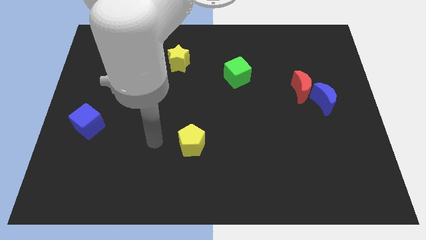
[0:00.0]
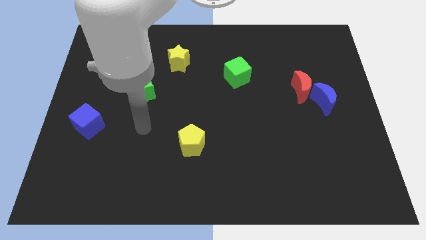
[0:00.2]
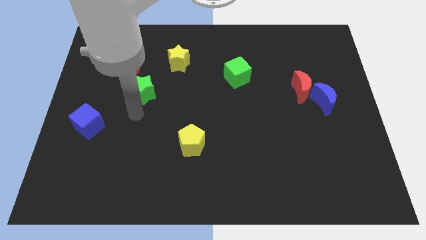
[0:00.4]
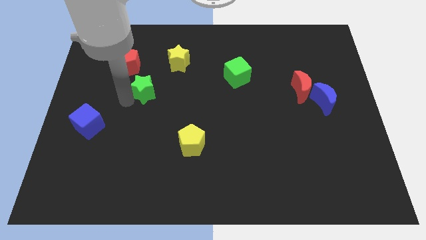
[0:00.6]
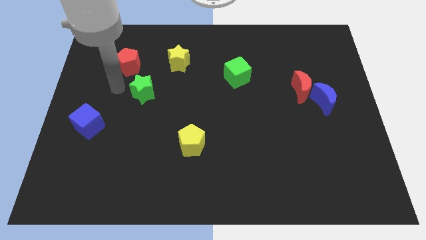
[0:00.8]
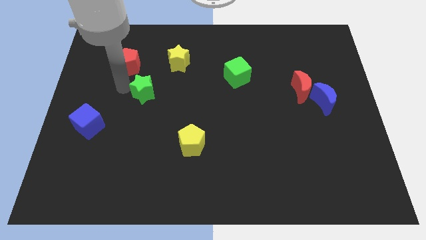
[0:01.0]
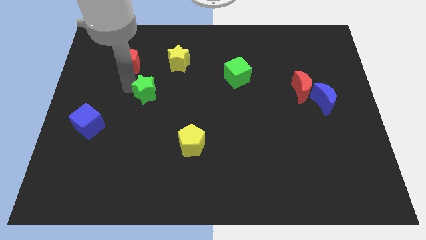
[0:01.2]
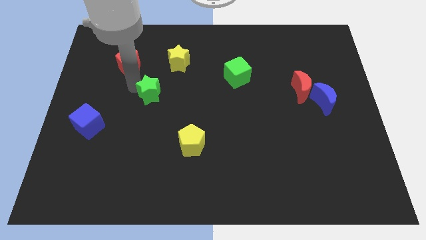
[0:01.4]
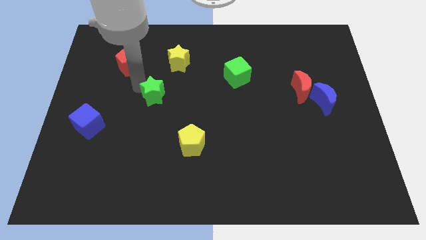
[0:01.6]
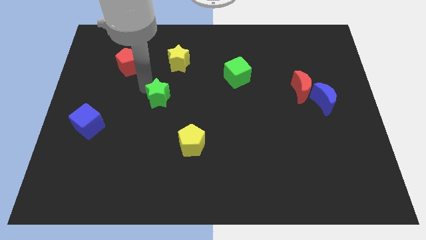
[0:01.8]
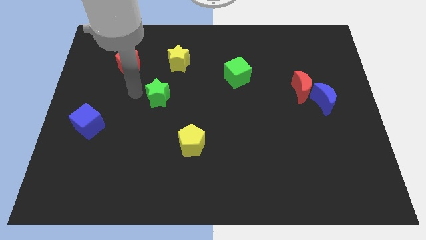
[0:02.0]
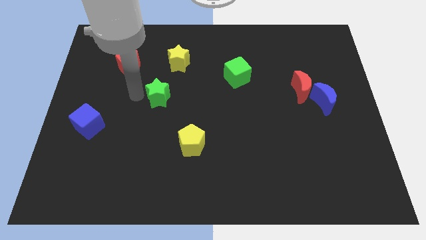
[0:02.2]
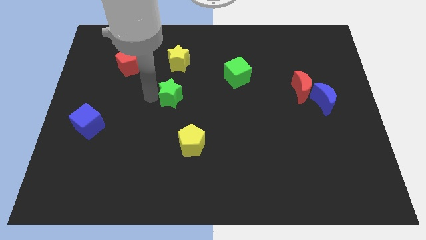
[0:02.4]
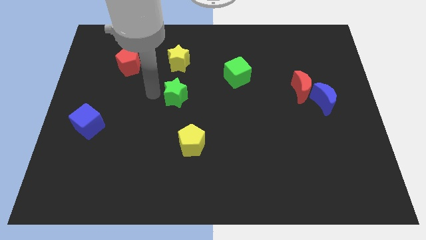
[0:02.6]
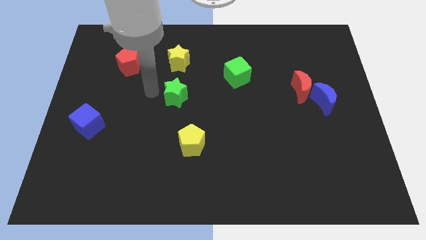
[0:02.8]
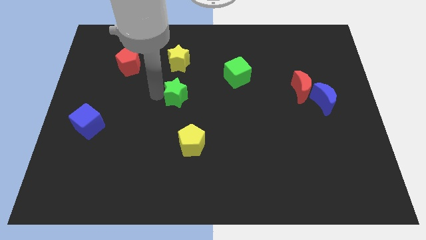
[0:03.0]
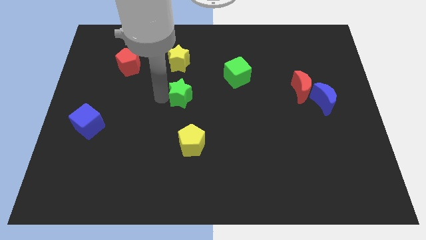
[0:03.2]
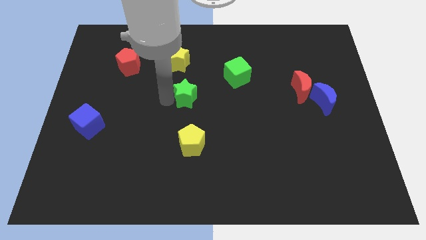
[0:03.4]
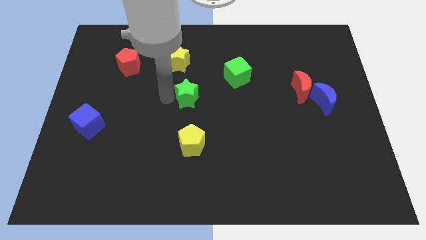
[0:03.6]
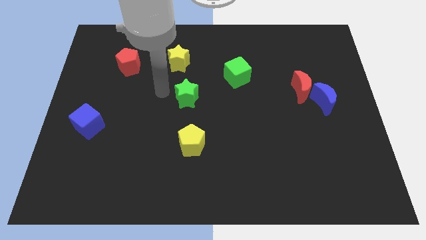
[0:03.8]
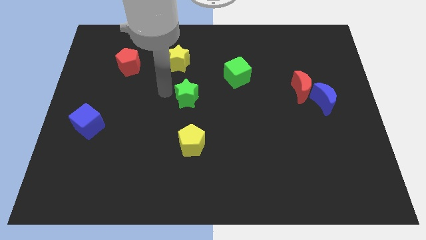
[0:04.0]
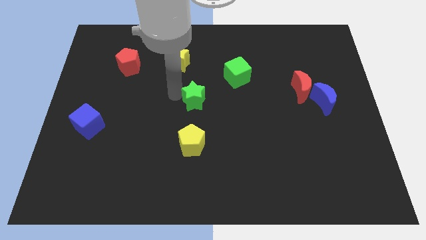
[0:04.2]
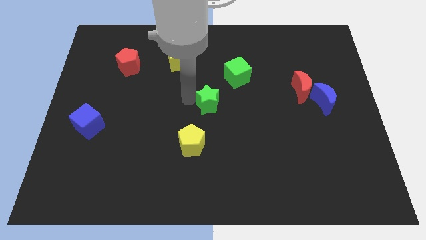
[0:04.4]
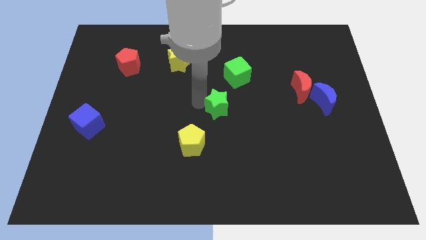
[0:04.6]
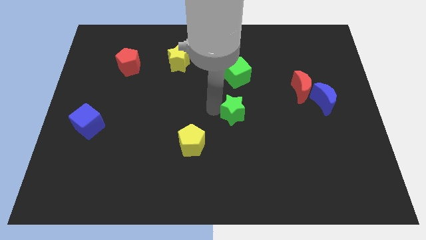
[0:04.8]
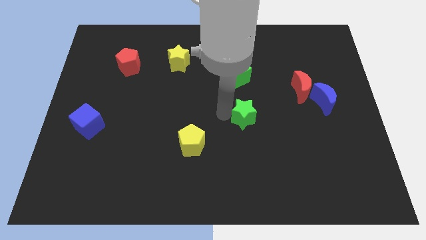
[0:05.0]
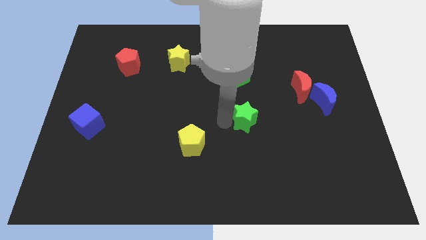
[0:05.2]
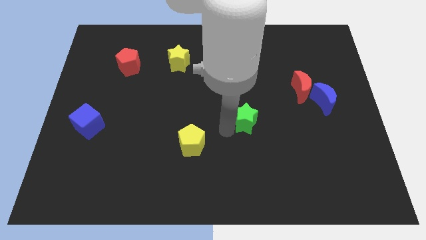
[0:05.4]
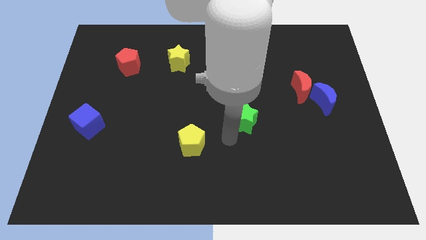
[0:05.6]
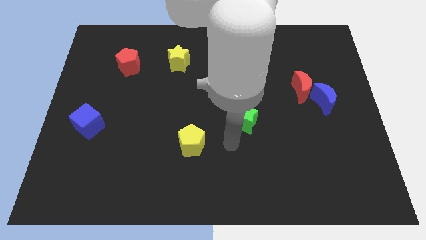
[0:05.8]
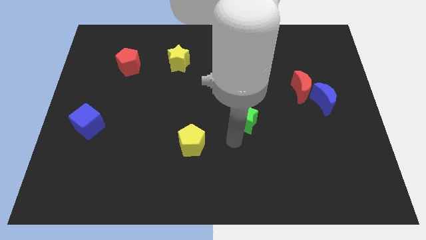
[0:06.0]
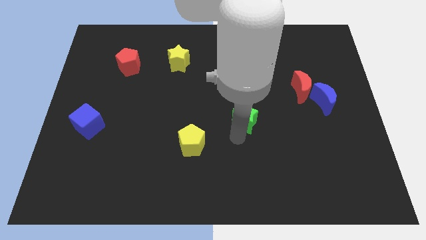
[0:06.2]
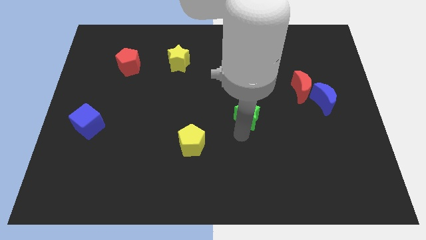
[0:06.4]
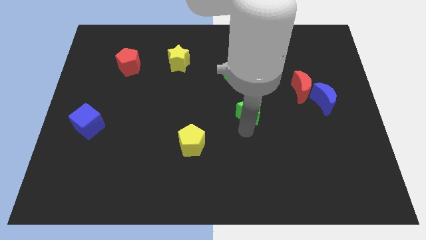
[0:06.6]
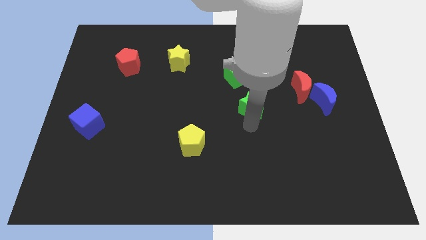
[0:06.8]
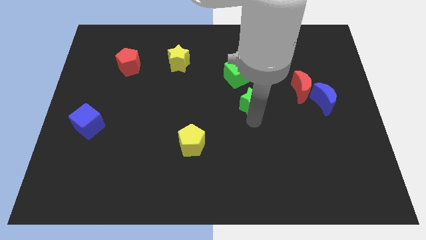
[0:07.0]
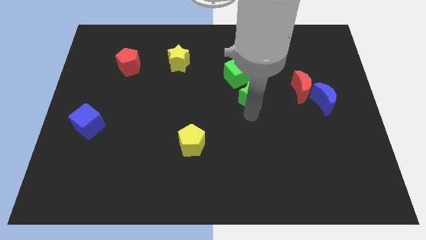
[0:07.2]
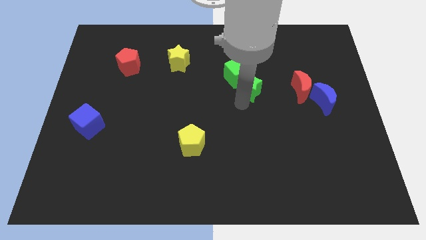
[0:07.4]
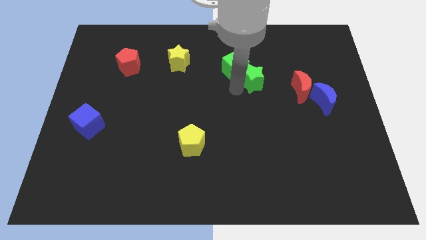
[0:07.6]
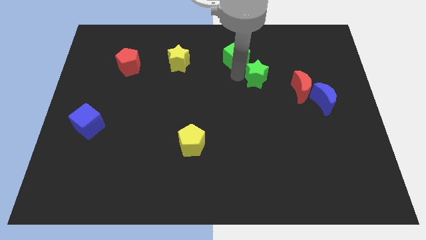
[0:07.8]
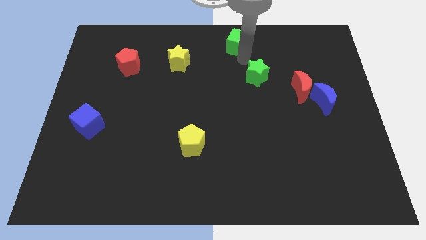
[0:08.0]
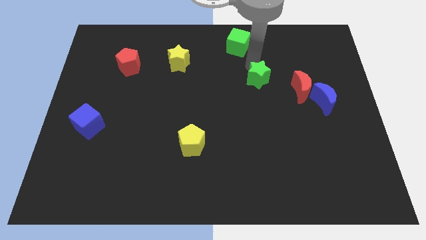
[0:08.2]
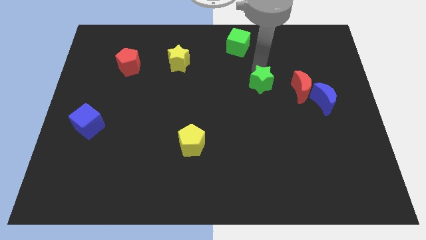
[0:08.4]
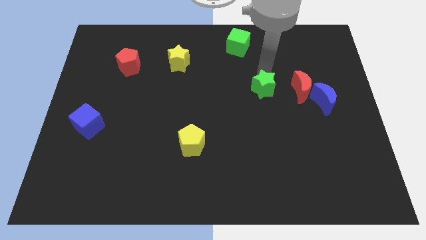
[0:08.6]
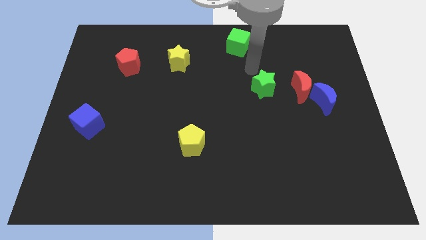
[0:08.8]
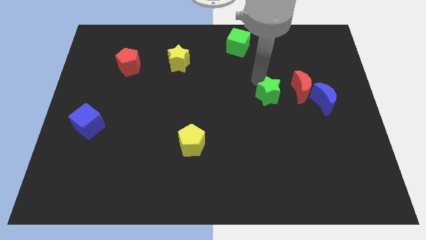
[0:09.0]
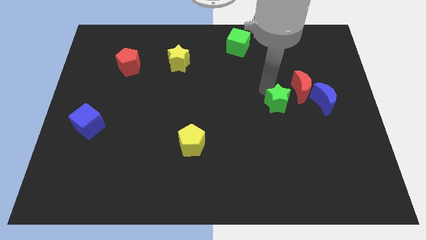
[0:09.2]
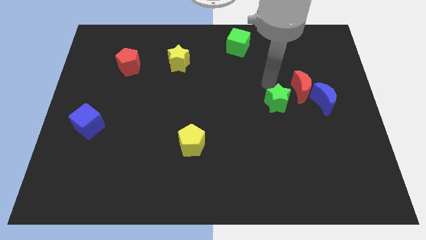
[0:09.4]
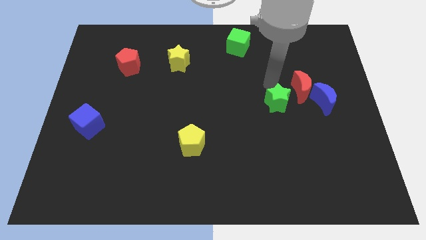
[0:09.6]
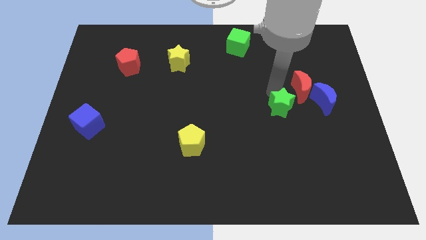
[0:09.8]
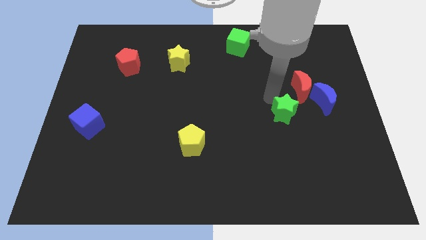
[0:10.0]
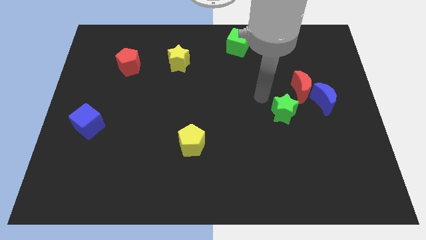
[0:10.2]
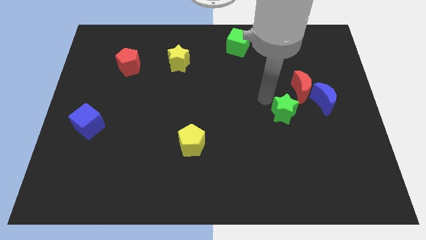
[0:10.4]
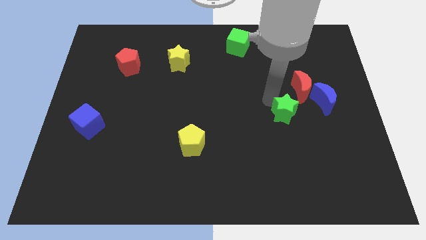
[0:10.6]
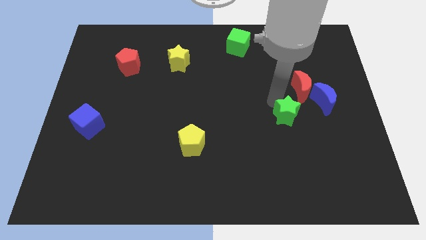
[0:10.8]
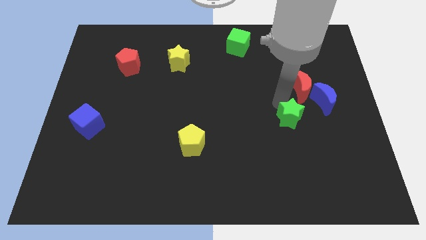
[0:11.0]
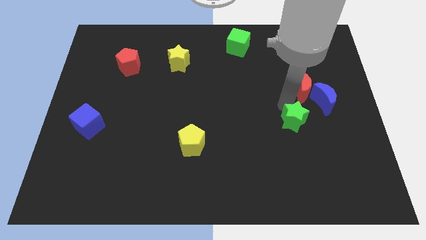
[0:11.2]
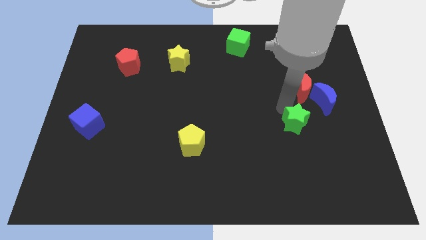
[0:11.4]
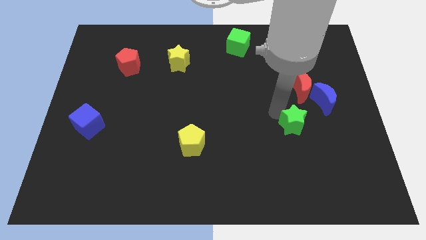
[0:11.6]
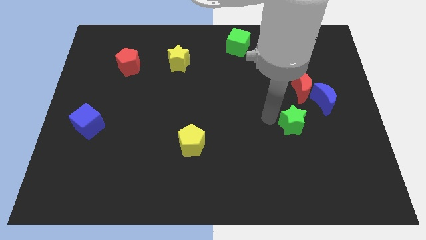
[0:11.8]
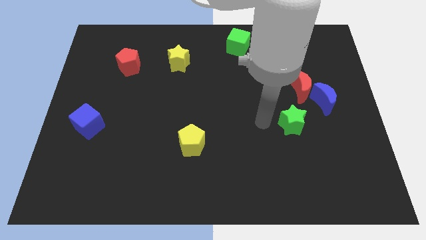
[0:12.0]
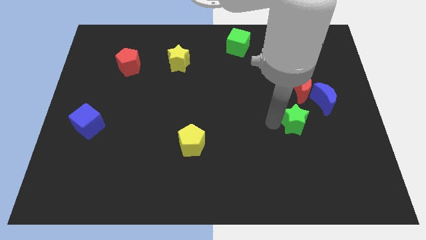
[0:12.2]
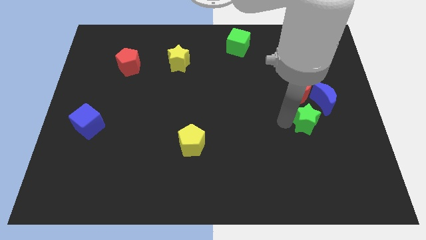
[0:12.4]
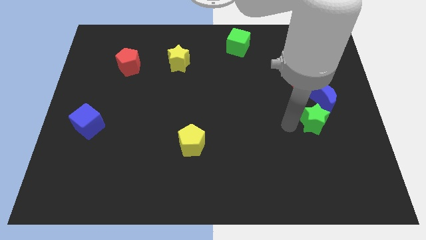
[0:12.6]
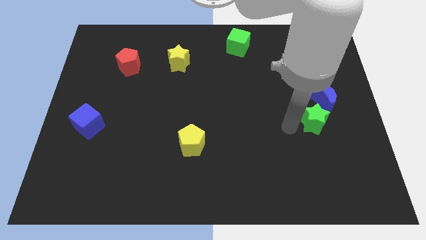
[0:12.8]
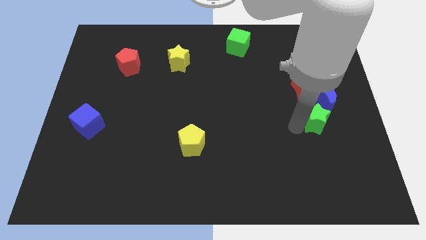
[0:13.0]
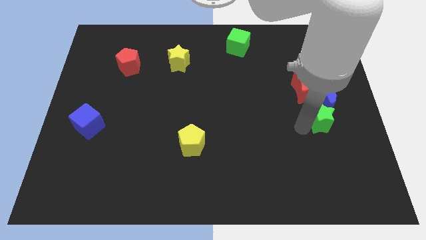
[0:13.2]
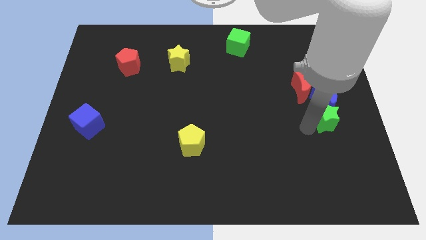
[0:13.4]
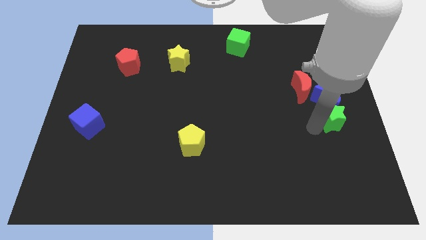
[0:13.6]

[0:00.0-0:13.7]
move the green star to the center right

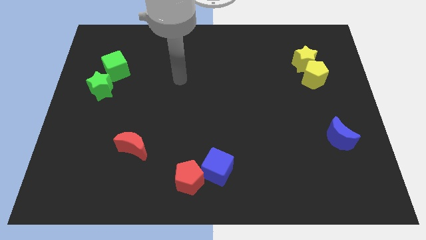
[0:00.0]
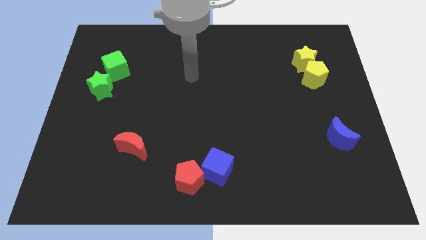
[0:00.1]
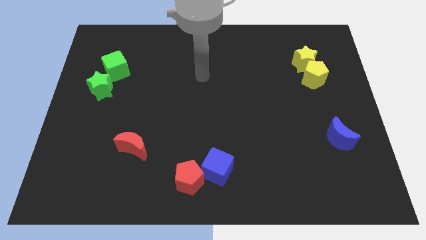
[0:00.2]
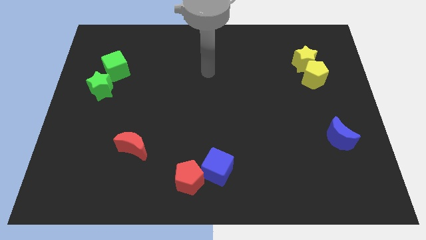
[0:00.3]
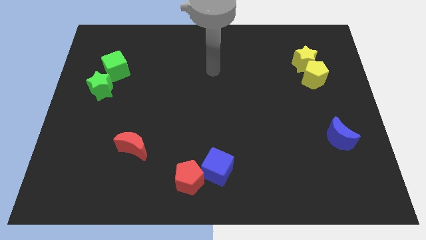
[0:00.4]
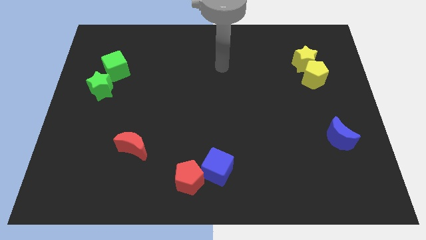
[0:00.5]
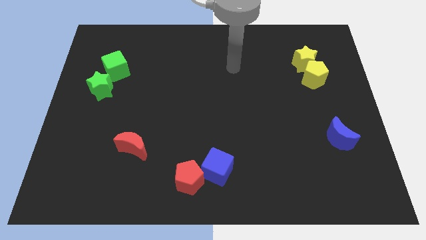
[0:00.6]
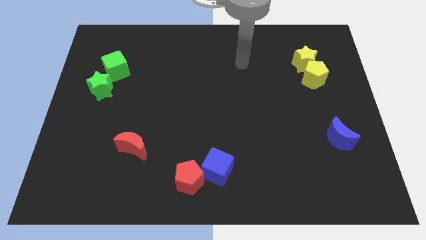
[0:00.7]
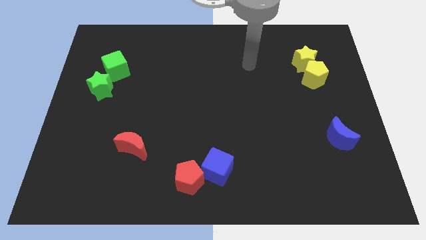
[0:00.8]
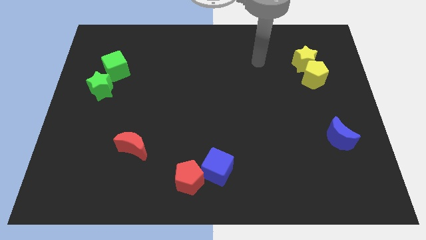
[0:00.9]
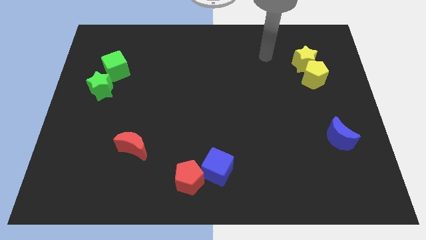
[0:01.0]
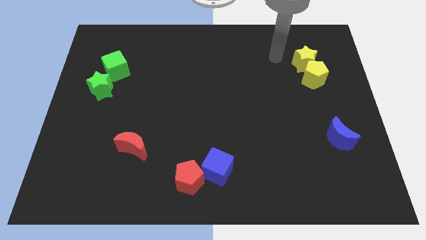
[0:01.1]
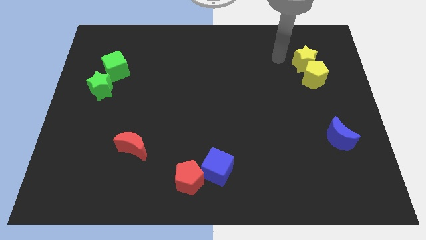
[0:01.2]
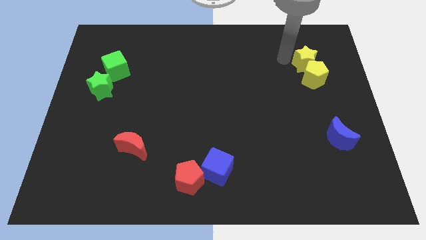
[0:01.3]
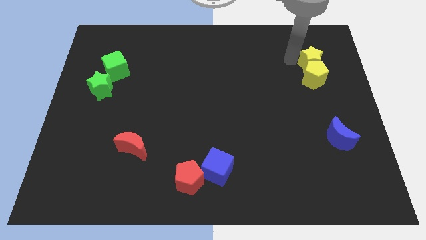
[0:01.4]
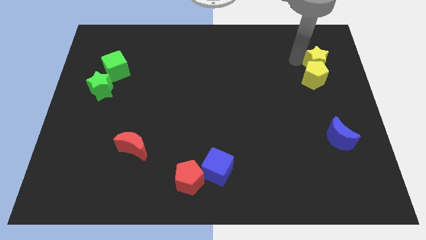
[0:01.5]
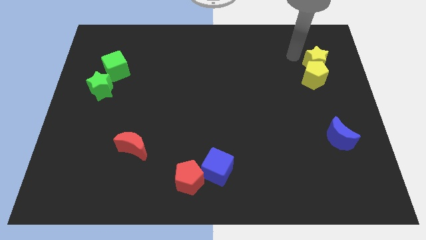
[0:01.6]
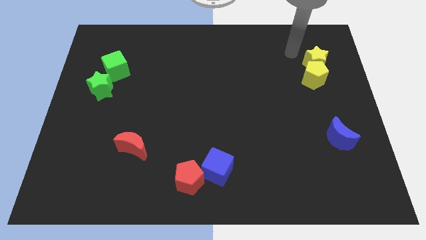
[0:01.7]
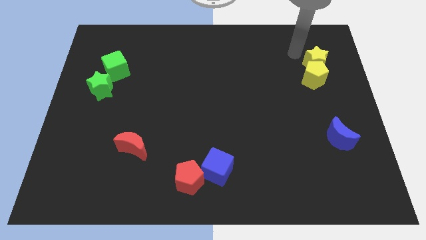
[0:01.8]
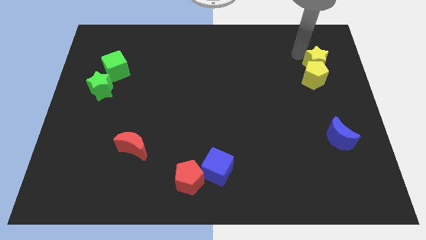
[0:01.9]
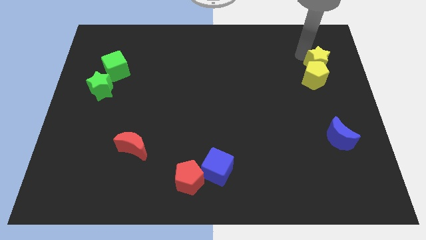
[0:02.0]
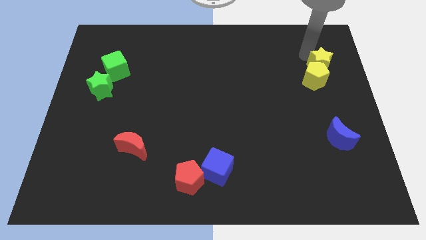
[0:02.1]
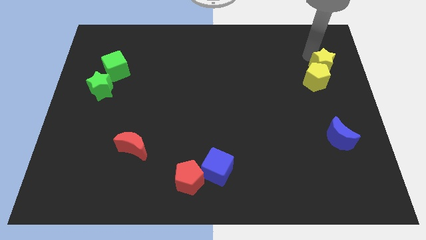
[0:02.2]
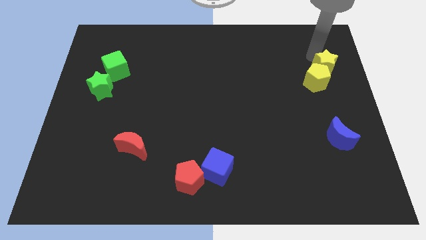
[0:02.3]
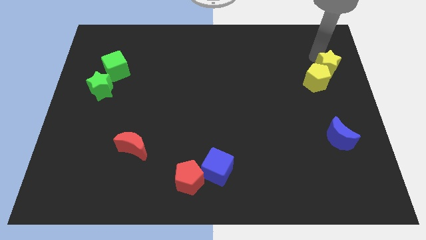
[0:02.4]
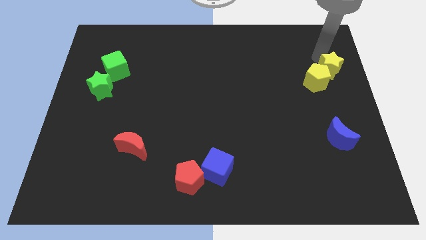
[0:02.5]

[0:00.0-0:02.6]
slide the yellow star to the center right
